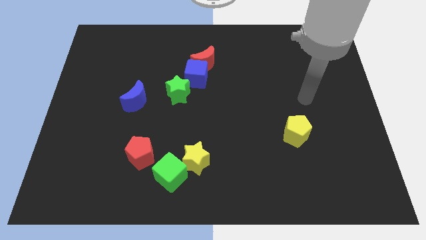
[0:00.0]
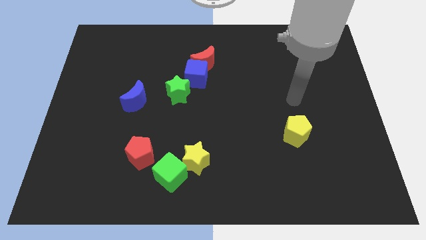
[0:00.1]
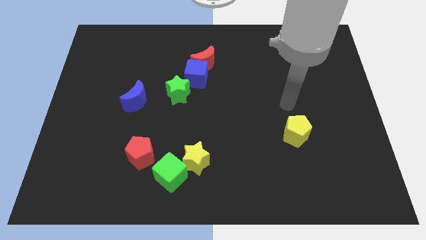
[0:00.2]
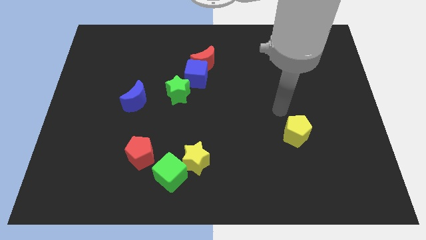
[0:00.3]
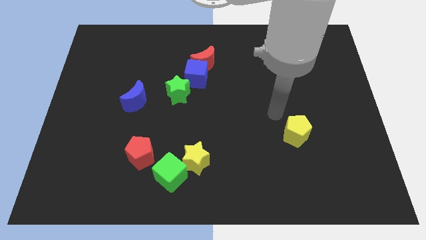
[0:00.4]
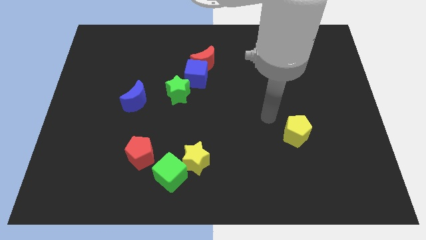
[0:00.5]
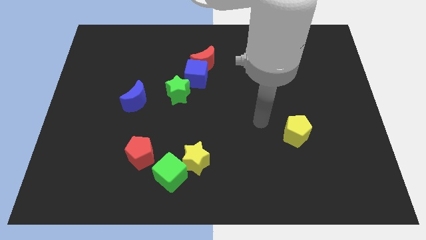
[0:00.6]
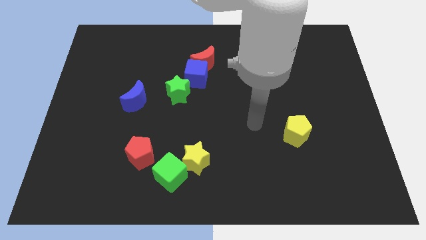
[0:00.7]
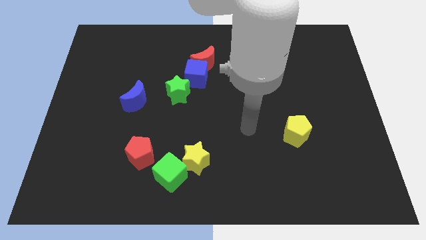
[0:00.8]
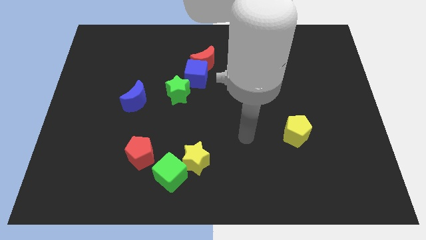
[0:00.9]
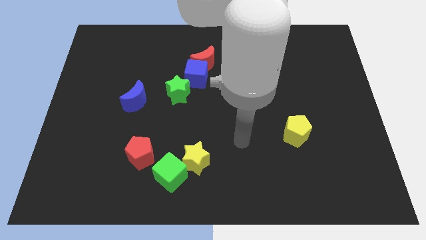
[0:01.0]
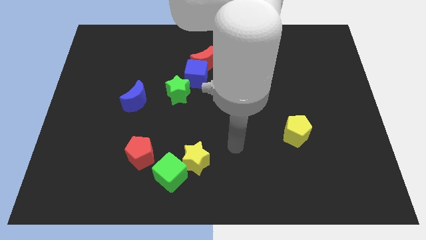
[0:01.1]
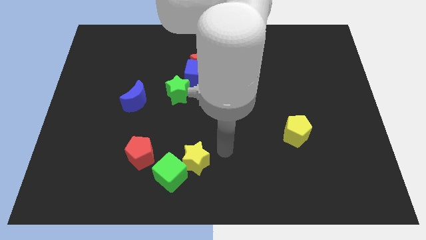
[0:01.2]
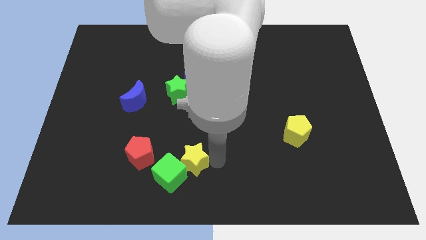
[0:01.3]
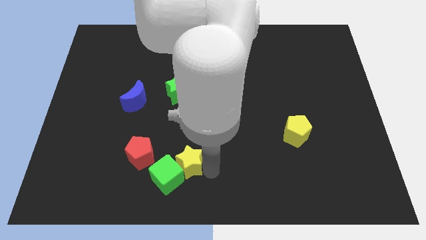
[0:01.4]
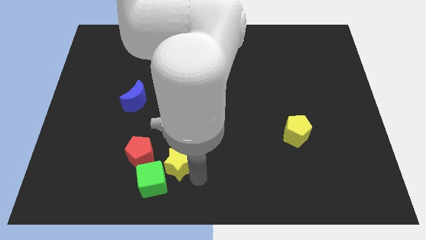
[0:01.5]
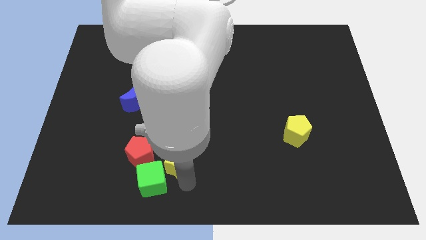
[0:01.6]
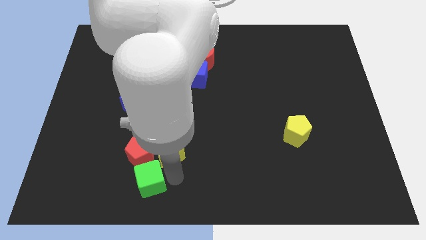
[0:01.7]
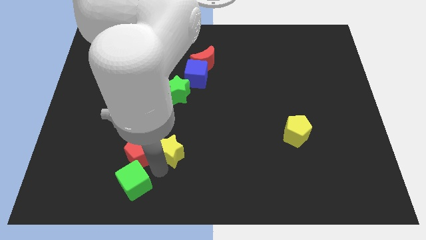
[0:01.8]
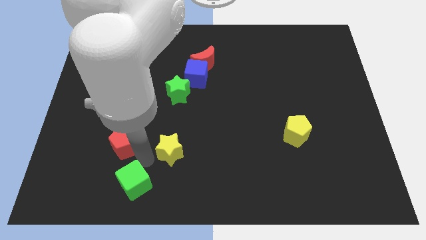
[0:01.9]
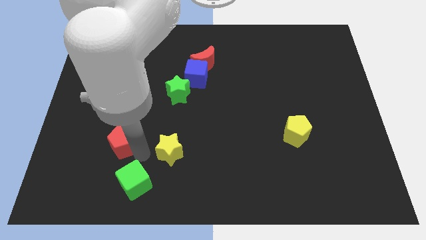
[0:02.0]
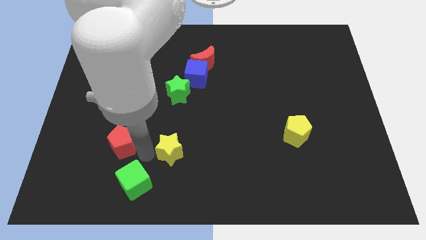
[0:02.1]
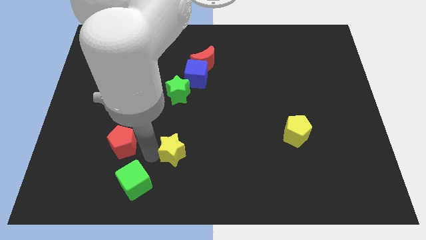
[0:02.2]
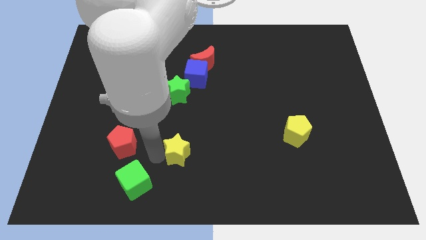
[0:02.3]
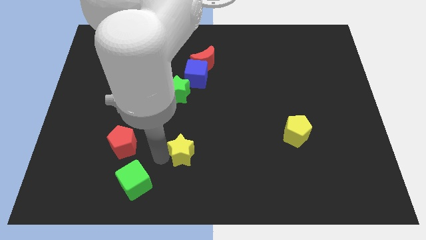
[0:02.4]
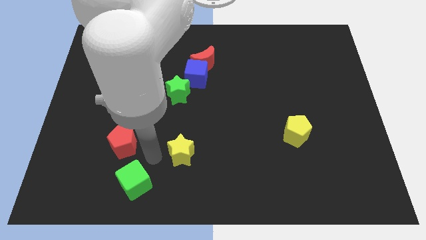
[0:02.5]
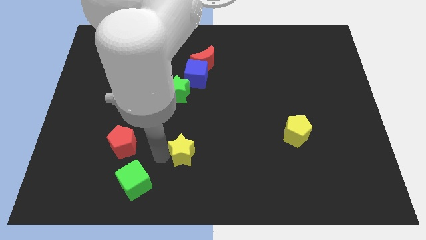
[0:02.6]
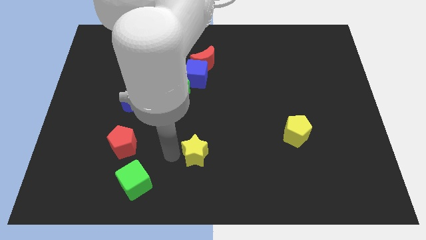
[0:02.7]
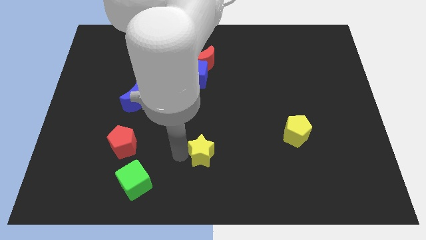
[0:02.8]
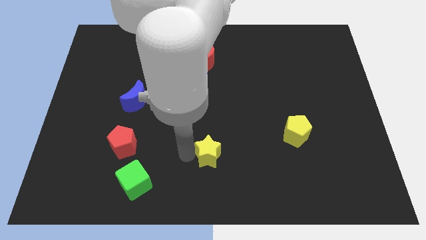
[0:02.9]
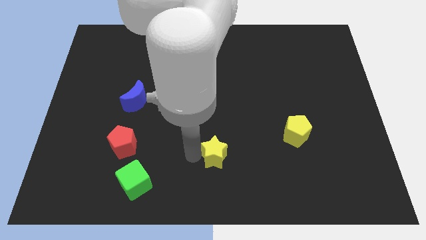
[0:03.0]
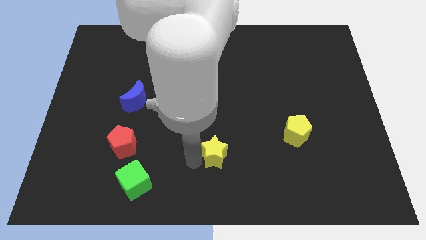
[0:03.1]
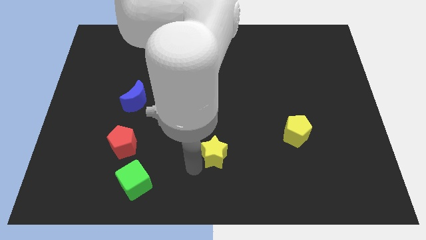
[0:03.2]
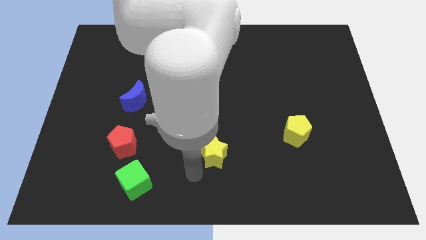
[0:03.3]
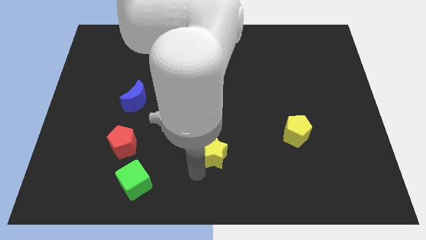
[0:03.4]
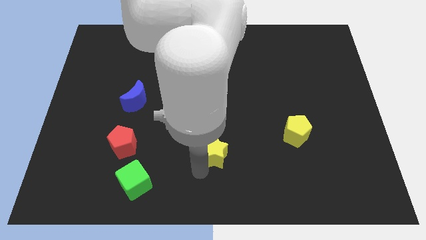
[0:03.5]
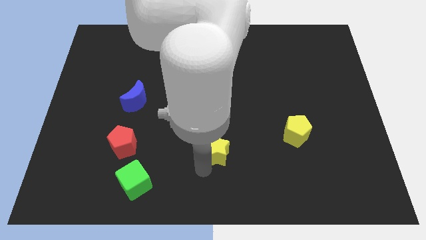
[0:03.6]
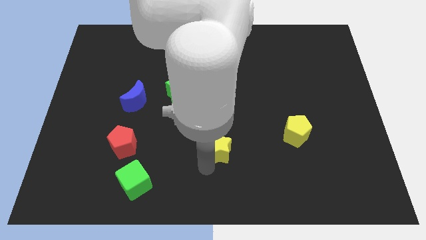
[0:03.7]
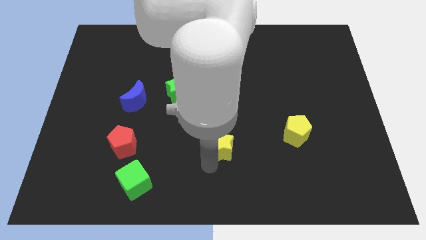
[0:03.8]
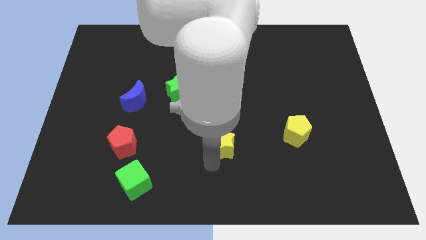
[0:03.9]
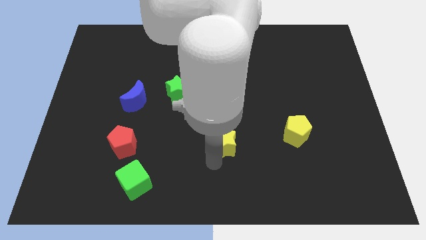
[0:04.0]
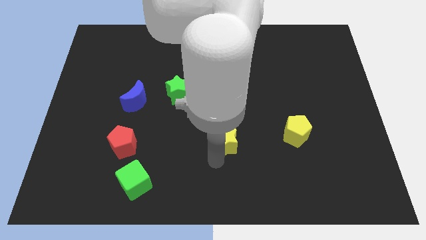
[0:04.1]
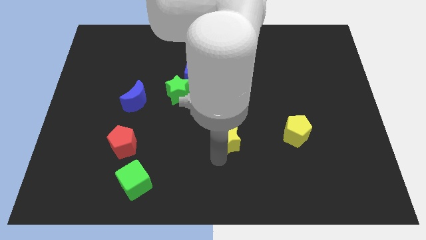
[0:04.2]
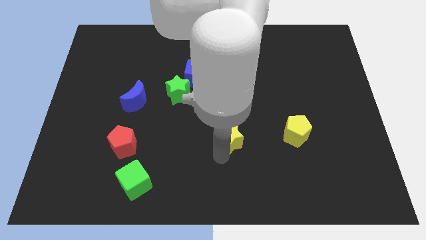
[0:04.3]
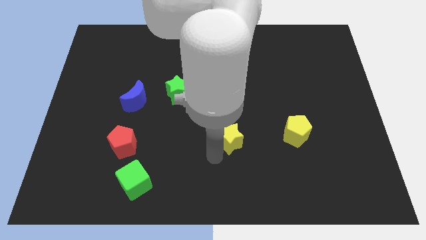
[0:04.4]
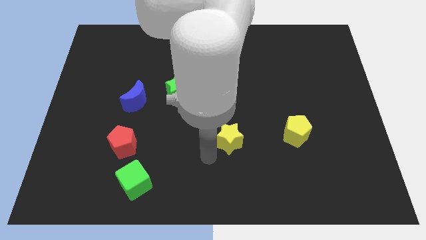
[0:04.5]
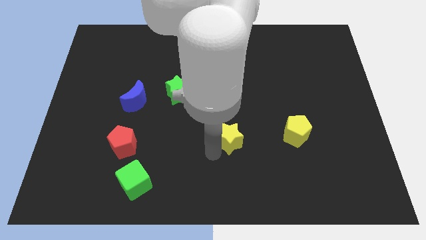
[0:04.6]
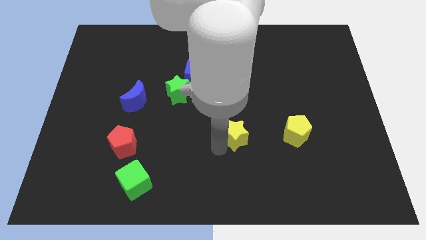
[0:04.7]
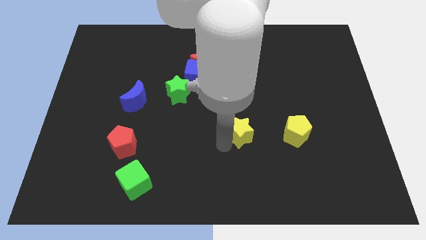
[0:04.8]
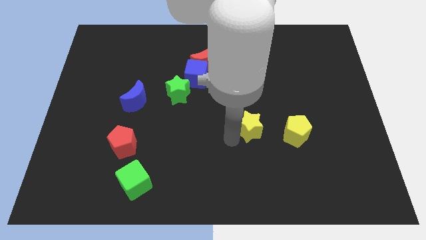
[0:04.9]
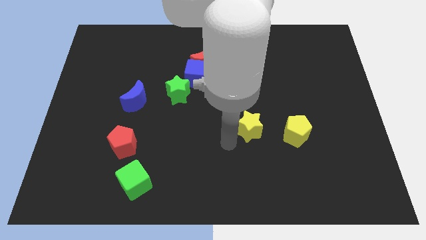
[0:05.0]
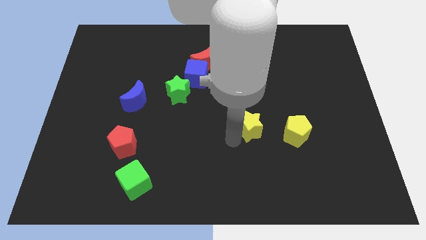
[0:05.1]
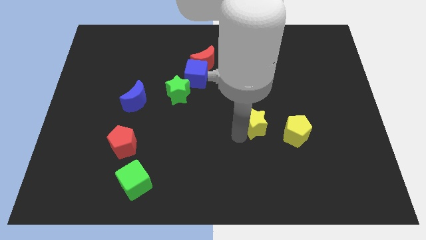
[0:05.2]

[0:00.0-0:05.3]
push the yellow star to the top left of the yellow pentagon

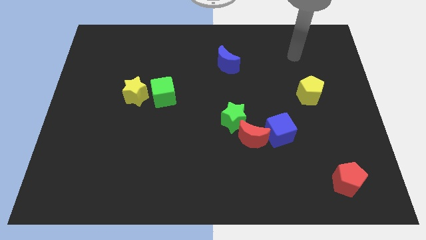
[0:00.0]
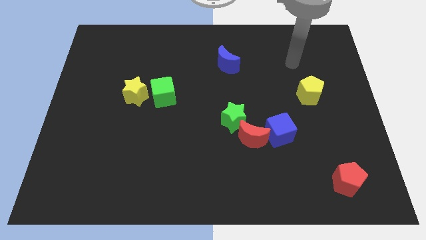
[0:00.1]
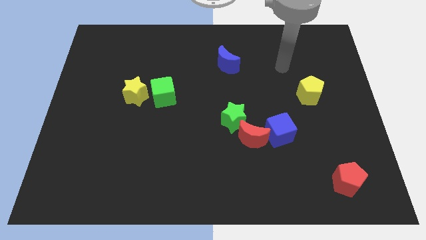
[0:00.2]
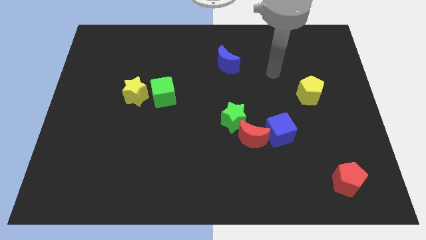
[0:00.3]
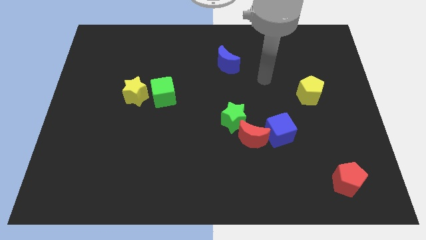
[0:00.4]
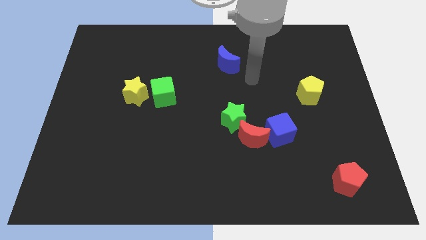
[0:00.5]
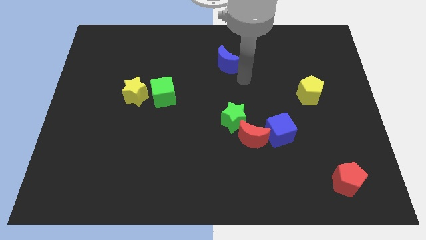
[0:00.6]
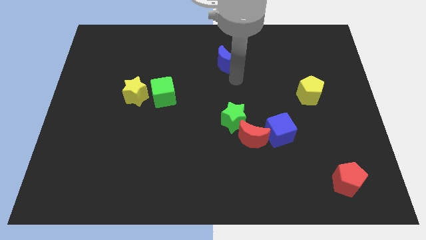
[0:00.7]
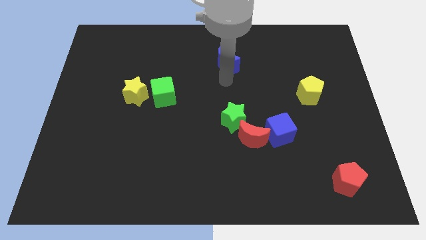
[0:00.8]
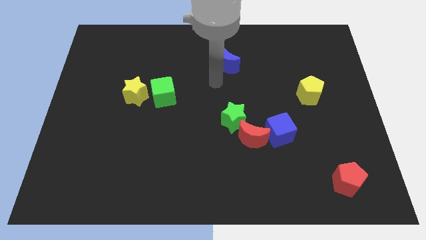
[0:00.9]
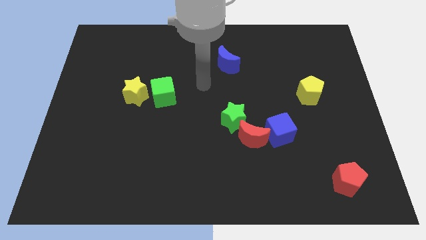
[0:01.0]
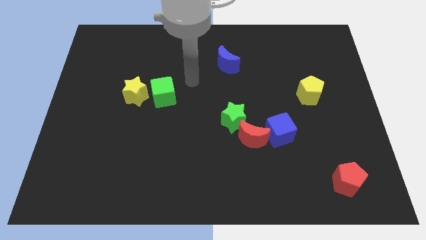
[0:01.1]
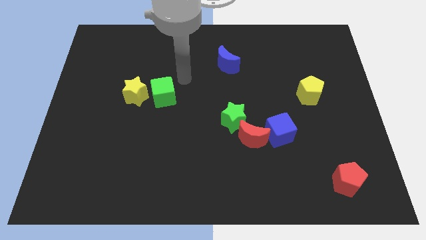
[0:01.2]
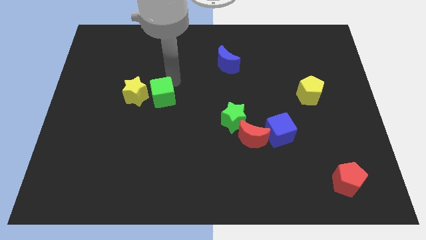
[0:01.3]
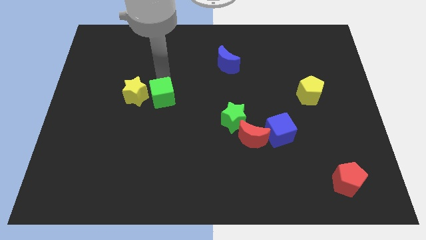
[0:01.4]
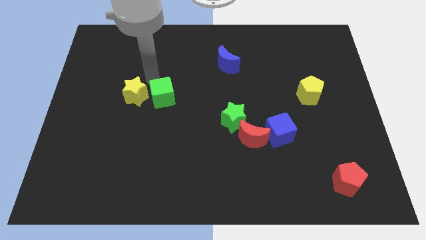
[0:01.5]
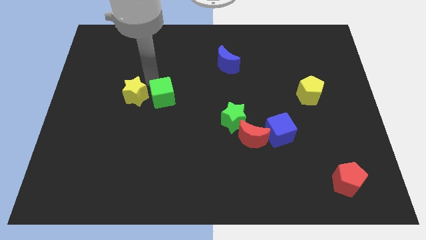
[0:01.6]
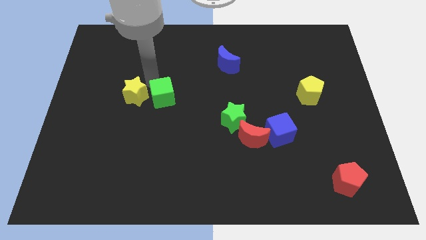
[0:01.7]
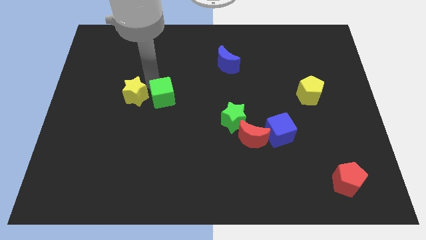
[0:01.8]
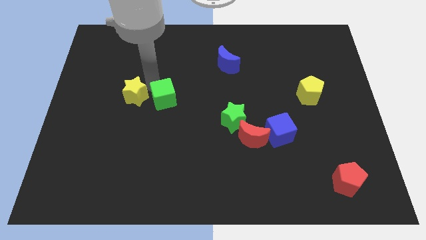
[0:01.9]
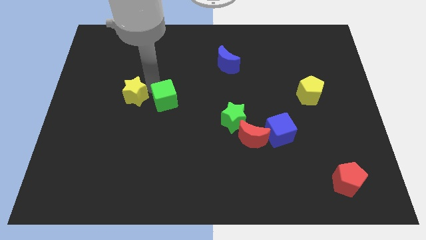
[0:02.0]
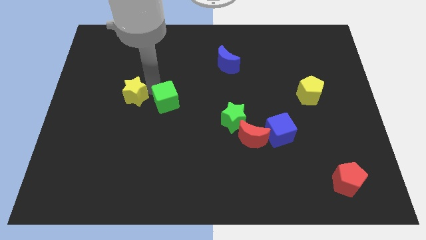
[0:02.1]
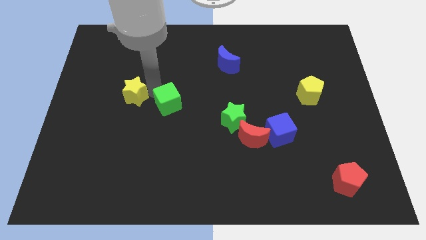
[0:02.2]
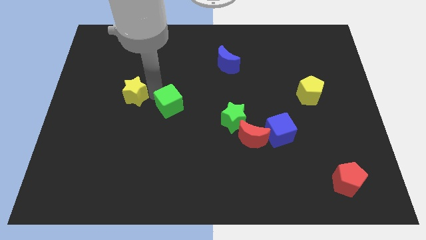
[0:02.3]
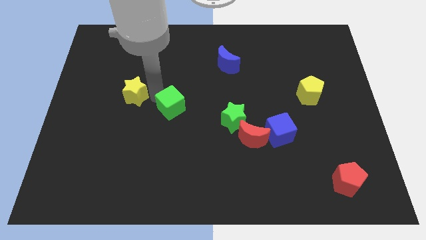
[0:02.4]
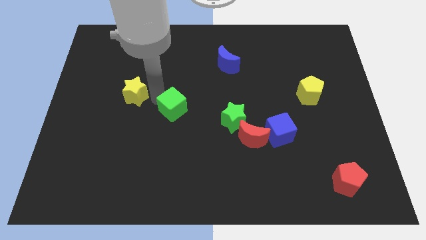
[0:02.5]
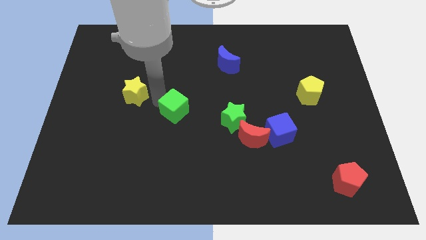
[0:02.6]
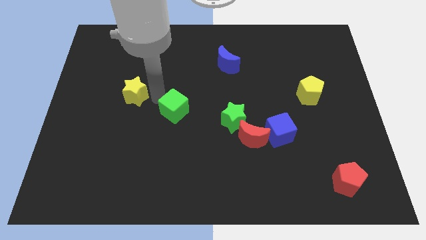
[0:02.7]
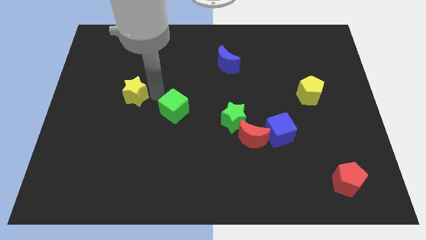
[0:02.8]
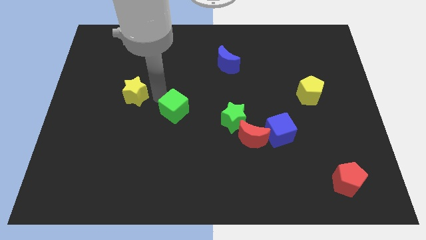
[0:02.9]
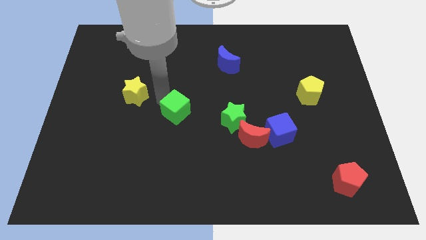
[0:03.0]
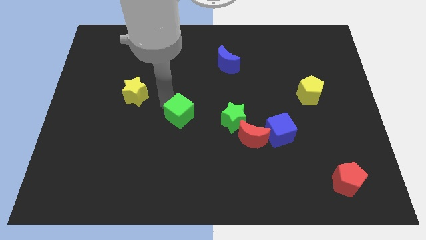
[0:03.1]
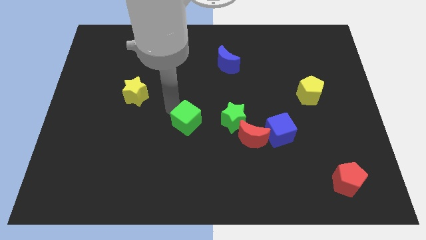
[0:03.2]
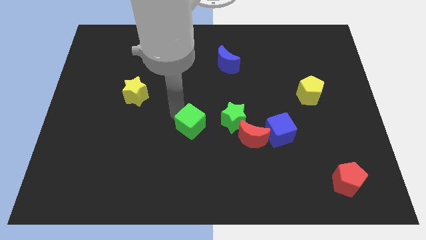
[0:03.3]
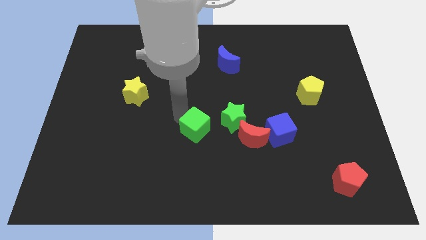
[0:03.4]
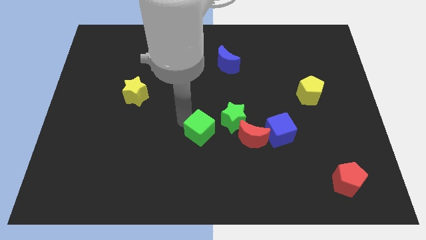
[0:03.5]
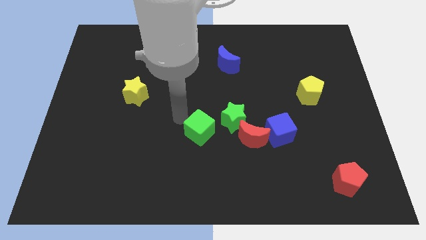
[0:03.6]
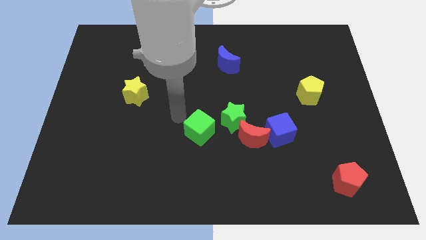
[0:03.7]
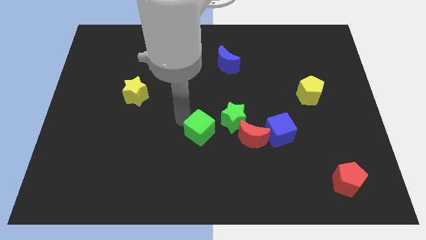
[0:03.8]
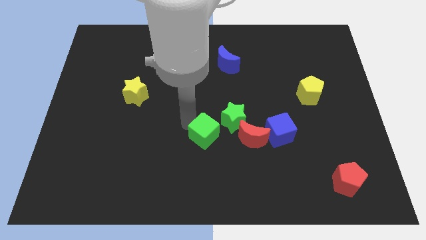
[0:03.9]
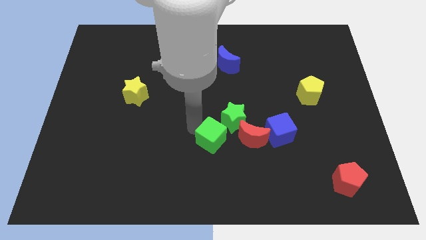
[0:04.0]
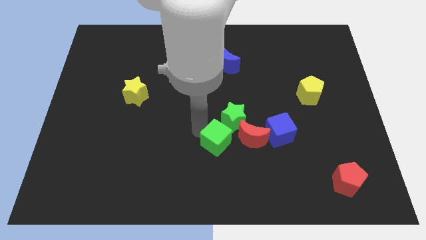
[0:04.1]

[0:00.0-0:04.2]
move the green cube below the green star
